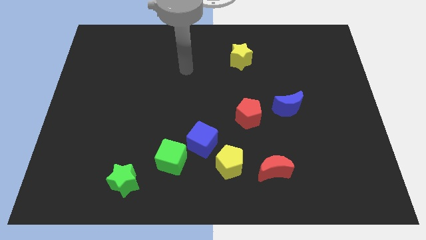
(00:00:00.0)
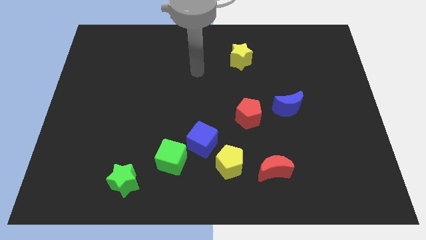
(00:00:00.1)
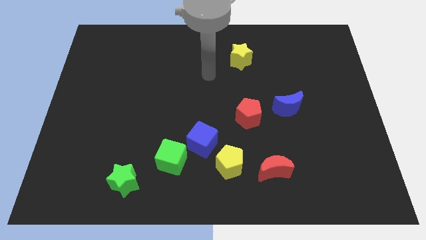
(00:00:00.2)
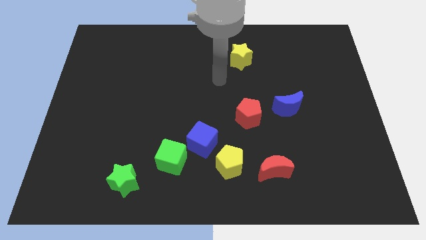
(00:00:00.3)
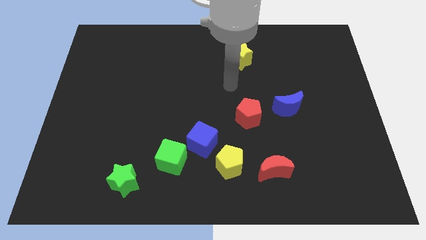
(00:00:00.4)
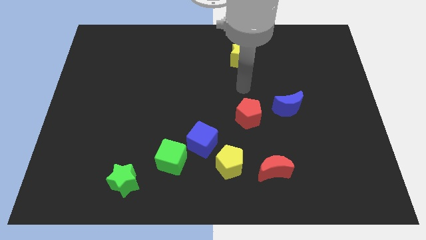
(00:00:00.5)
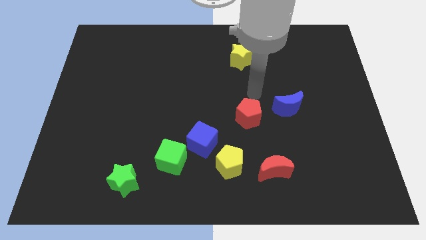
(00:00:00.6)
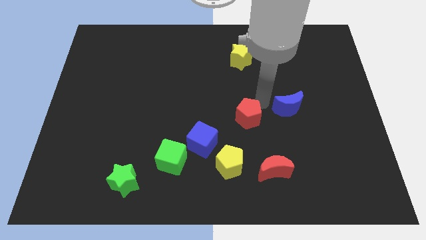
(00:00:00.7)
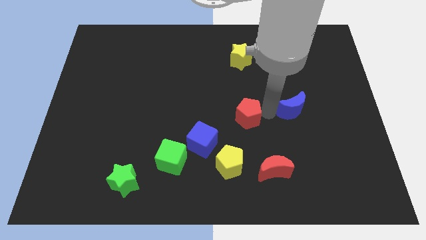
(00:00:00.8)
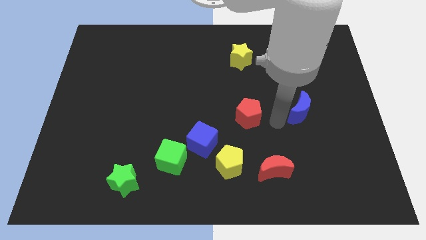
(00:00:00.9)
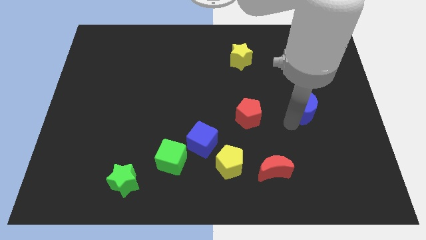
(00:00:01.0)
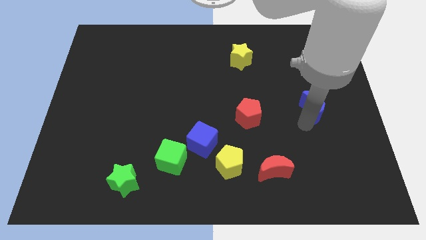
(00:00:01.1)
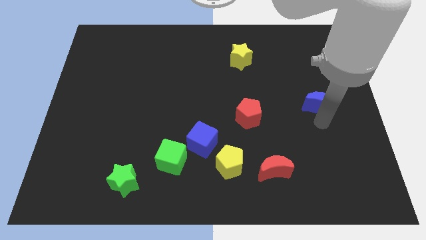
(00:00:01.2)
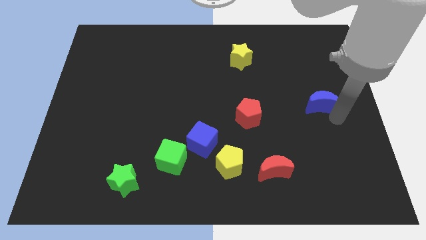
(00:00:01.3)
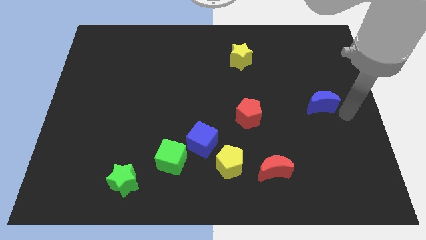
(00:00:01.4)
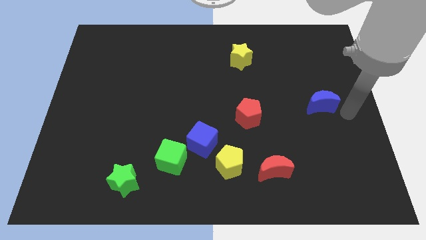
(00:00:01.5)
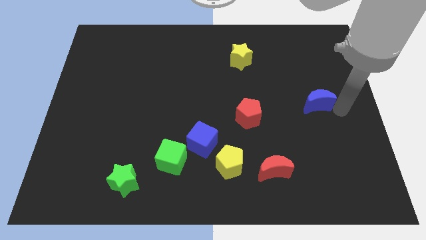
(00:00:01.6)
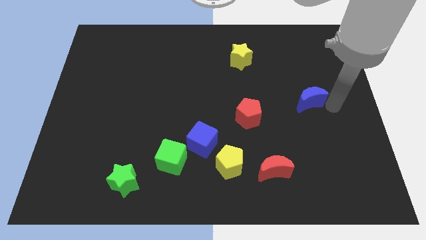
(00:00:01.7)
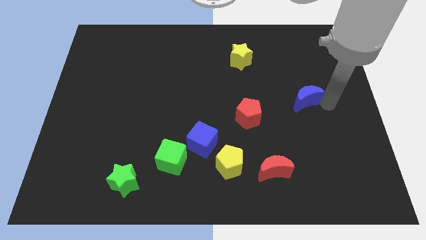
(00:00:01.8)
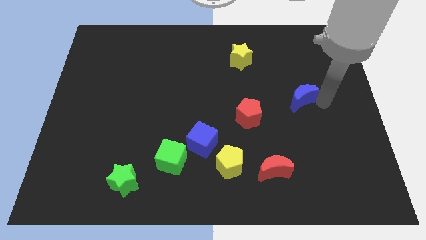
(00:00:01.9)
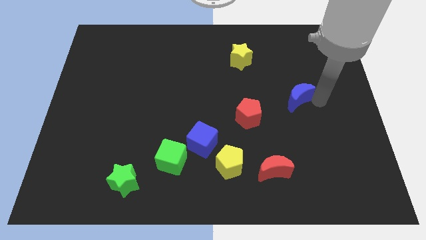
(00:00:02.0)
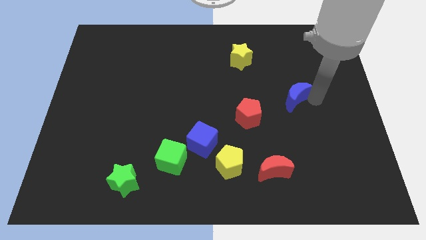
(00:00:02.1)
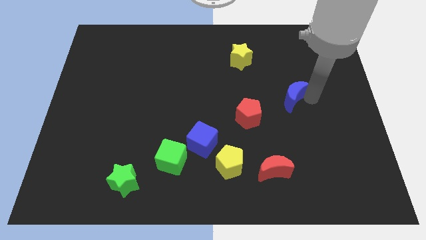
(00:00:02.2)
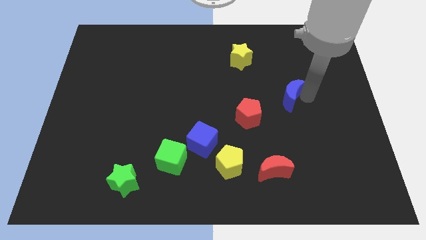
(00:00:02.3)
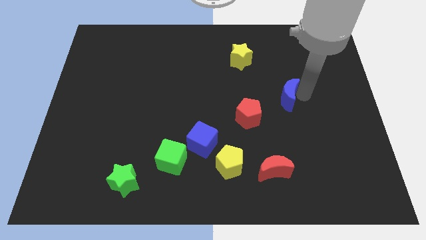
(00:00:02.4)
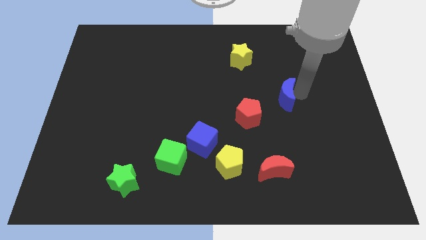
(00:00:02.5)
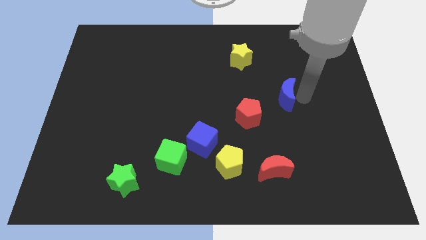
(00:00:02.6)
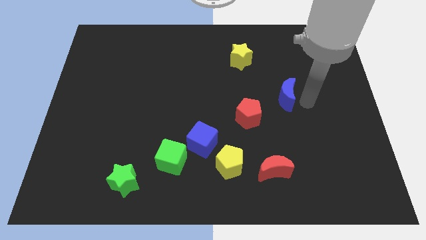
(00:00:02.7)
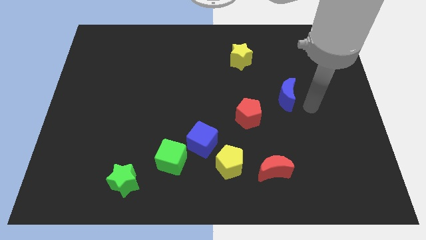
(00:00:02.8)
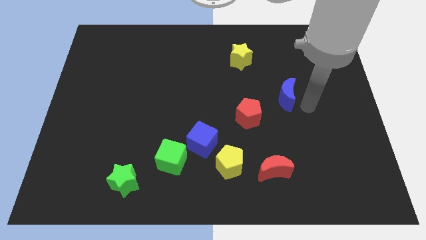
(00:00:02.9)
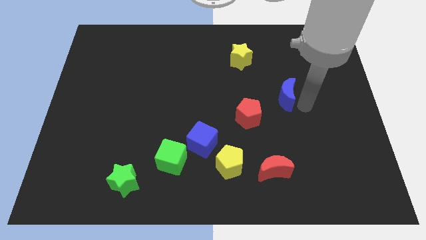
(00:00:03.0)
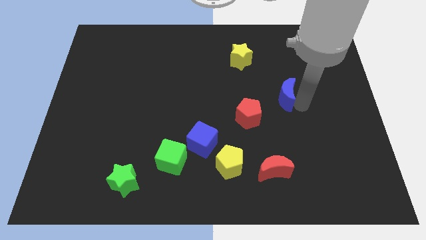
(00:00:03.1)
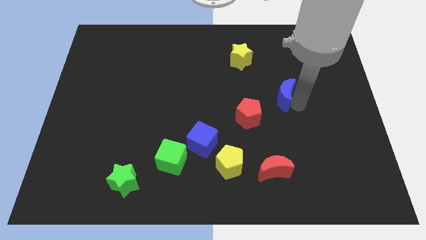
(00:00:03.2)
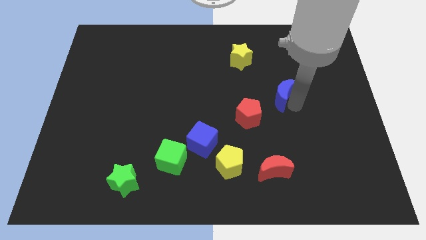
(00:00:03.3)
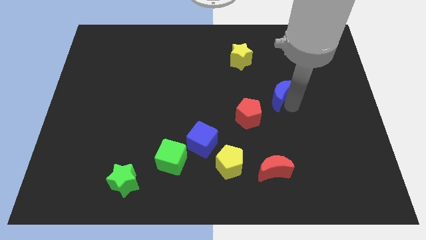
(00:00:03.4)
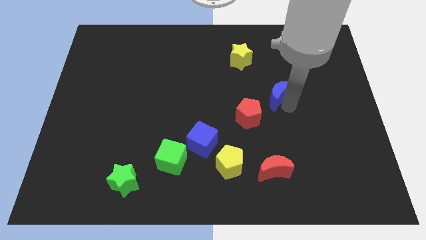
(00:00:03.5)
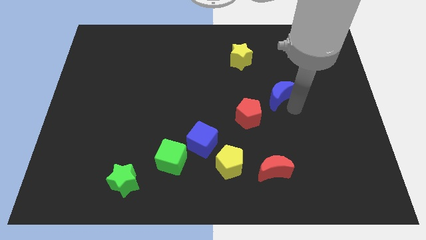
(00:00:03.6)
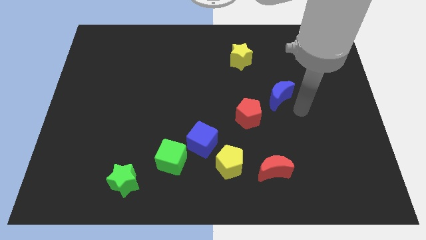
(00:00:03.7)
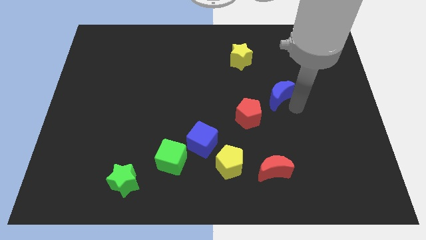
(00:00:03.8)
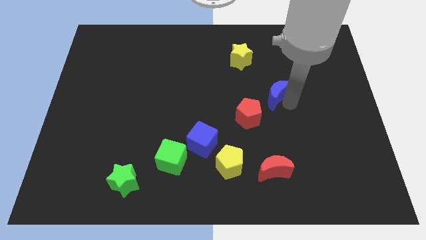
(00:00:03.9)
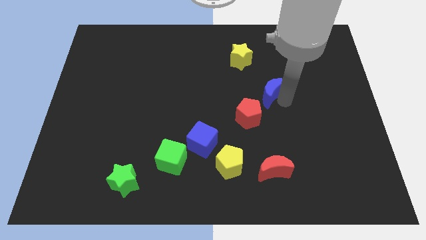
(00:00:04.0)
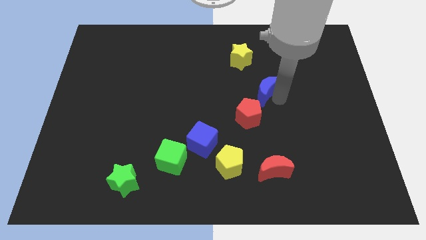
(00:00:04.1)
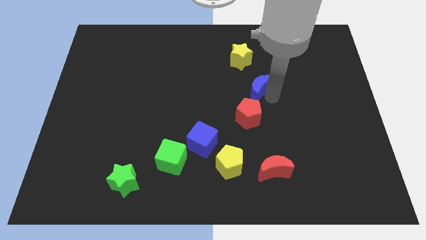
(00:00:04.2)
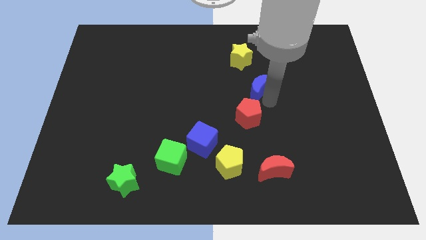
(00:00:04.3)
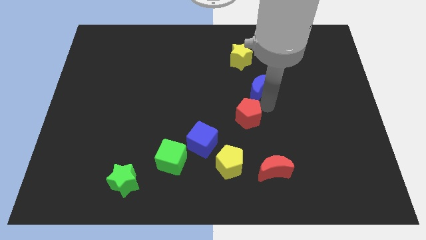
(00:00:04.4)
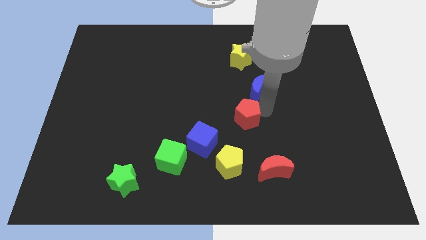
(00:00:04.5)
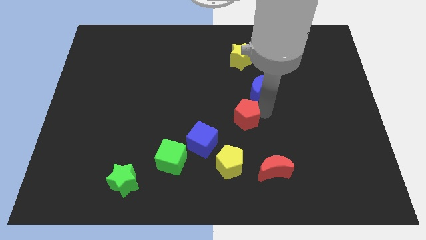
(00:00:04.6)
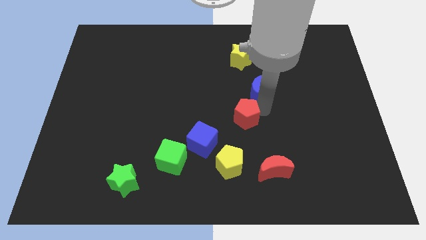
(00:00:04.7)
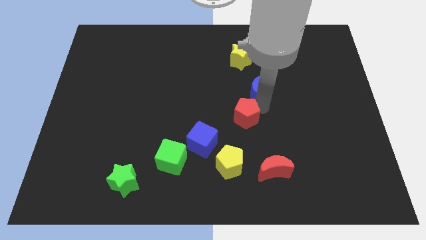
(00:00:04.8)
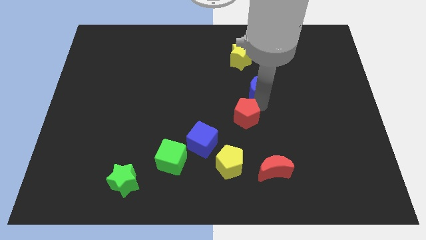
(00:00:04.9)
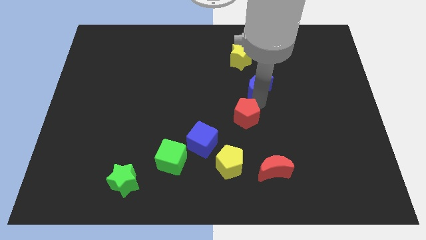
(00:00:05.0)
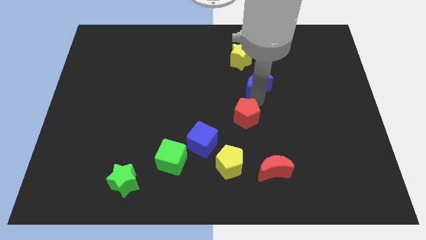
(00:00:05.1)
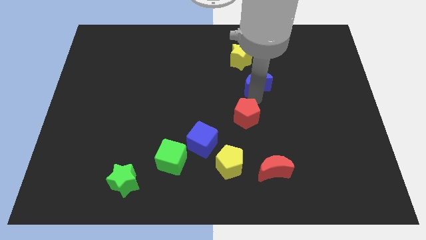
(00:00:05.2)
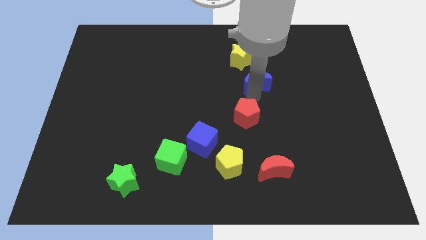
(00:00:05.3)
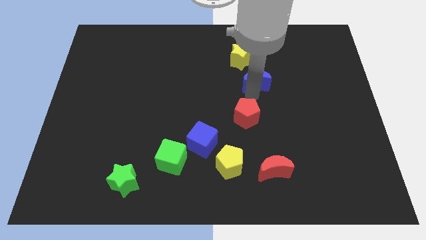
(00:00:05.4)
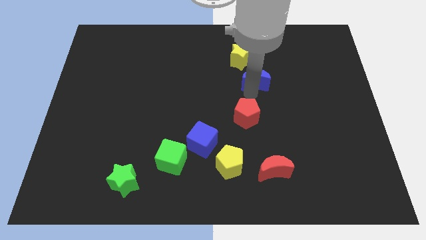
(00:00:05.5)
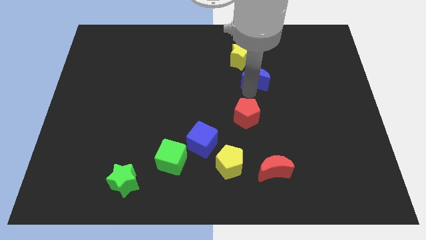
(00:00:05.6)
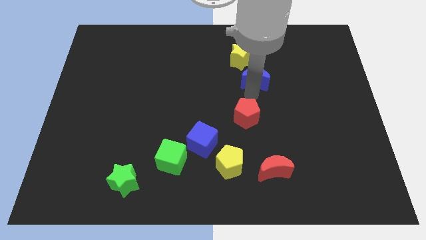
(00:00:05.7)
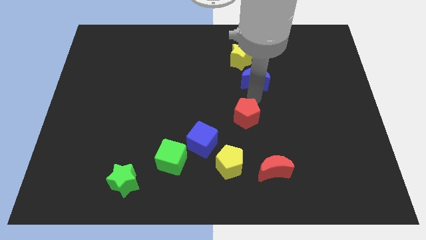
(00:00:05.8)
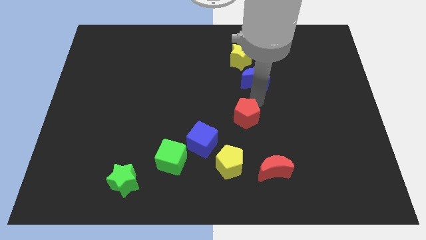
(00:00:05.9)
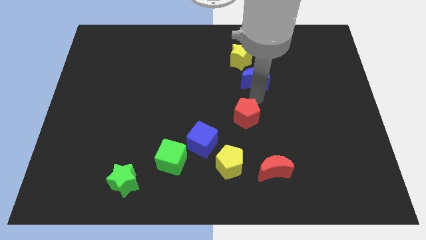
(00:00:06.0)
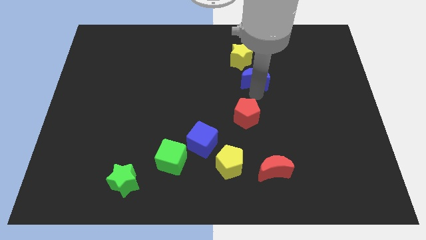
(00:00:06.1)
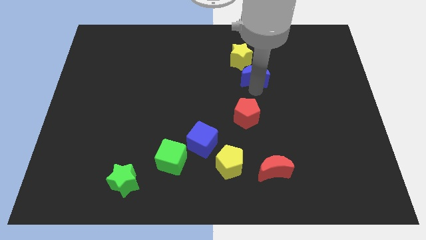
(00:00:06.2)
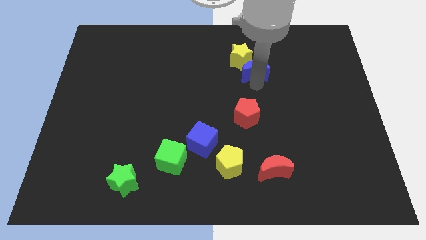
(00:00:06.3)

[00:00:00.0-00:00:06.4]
slide the blue moon close to the yellow star

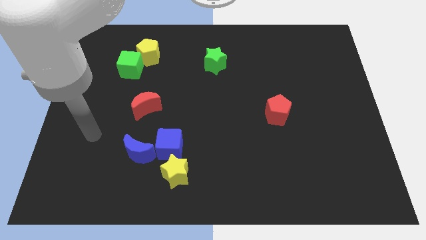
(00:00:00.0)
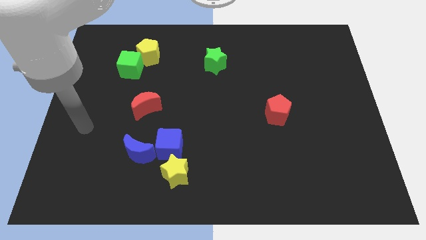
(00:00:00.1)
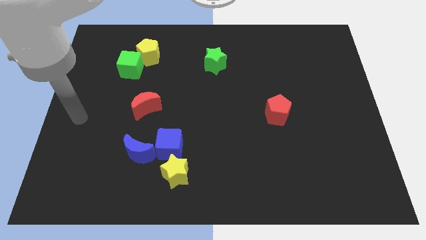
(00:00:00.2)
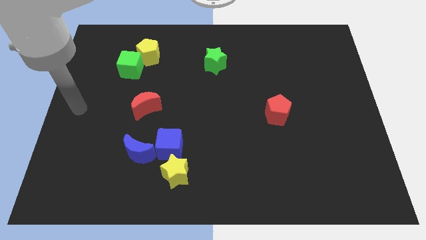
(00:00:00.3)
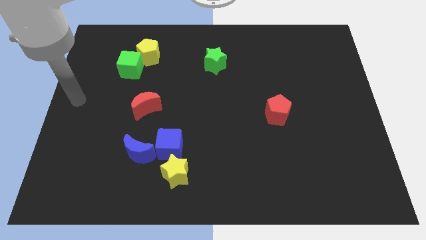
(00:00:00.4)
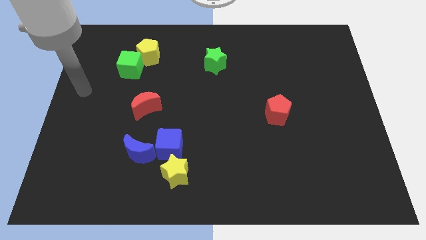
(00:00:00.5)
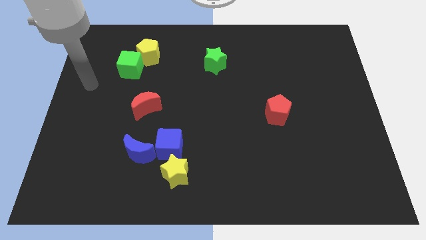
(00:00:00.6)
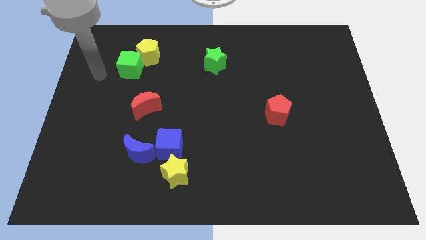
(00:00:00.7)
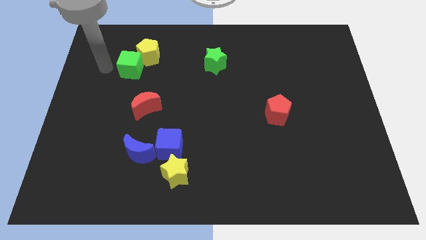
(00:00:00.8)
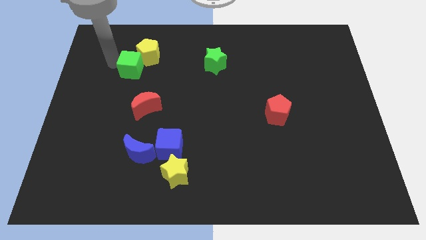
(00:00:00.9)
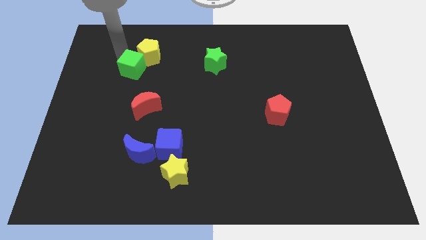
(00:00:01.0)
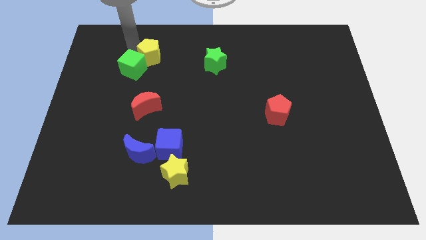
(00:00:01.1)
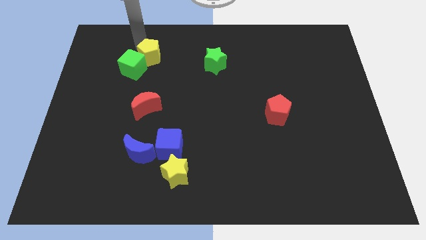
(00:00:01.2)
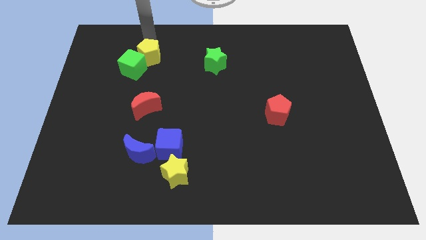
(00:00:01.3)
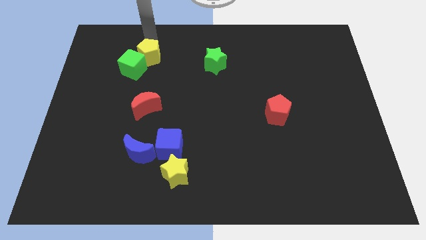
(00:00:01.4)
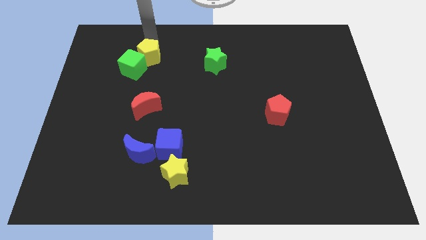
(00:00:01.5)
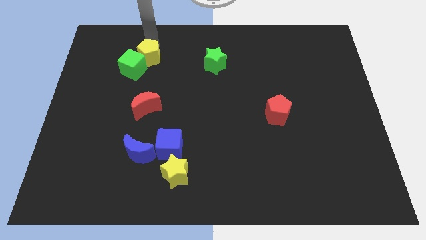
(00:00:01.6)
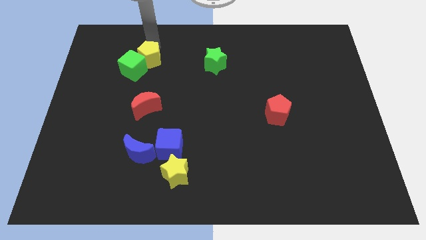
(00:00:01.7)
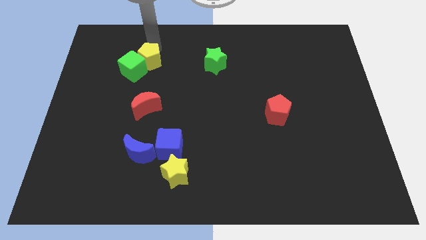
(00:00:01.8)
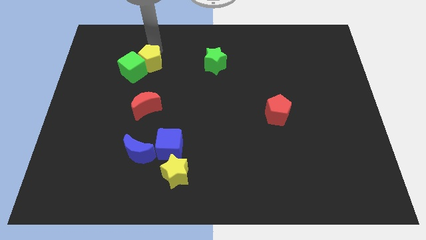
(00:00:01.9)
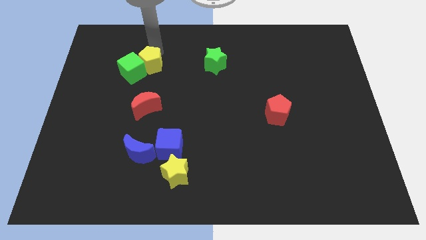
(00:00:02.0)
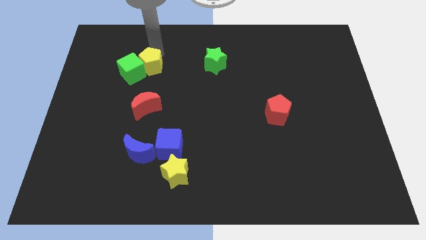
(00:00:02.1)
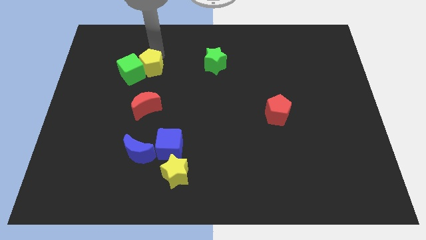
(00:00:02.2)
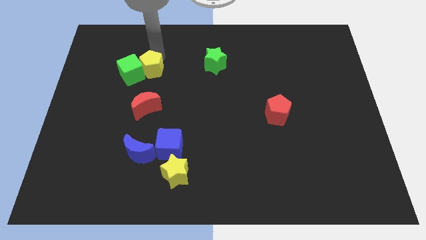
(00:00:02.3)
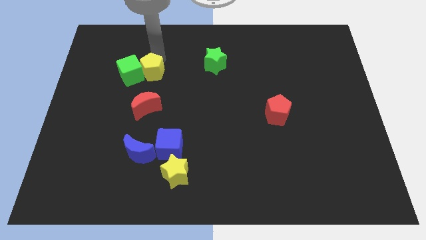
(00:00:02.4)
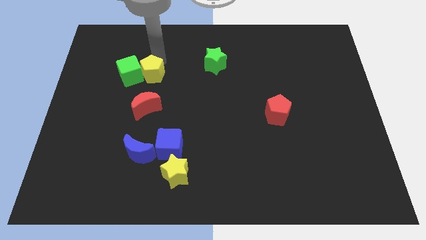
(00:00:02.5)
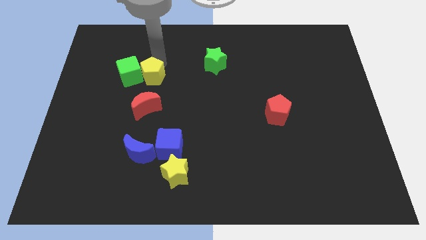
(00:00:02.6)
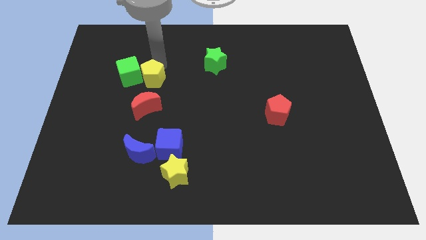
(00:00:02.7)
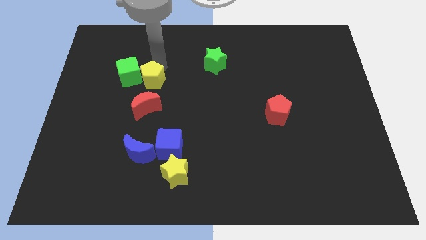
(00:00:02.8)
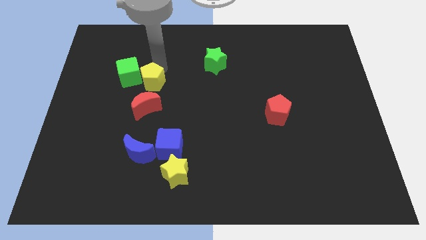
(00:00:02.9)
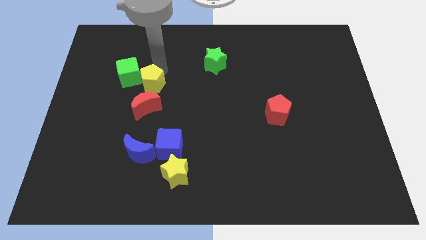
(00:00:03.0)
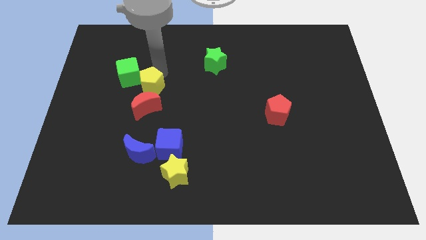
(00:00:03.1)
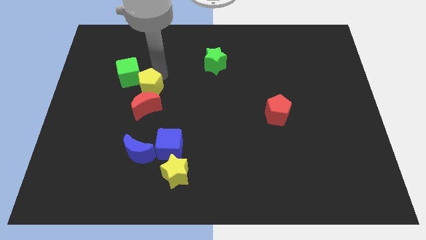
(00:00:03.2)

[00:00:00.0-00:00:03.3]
put the yellow pentagon towards the red moon
